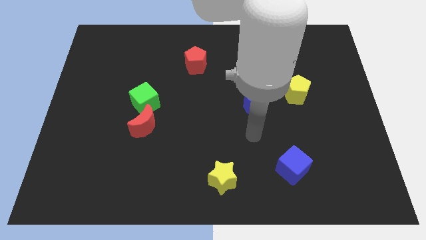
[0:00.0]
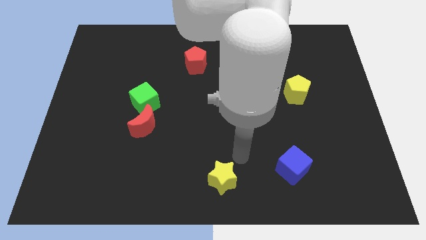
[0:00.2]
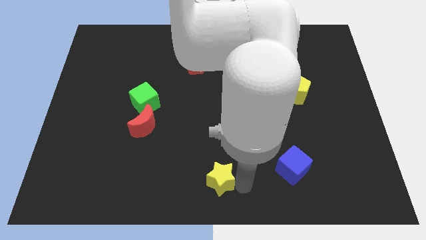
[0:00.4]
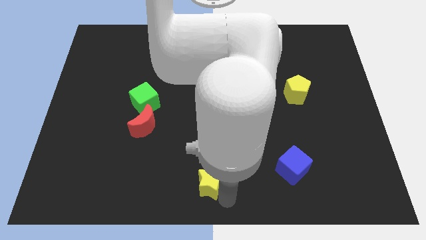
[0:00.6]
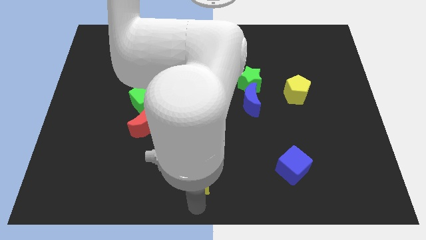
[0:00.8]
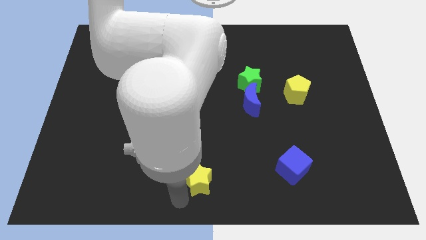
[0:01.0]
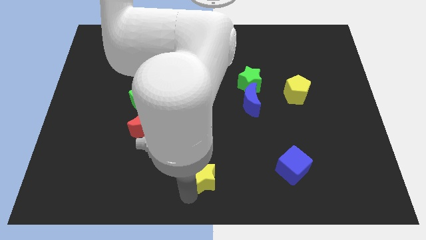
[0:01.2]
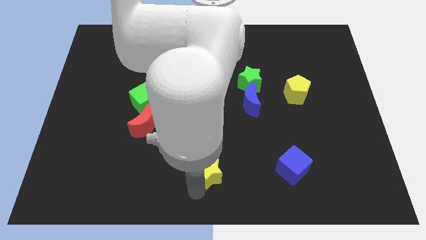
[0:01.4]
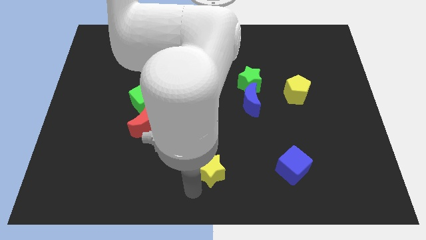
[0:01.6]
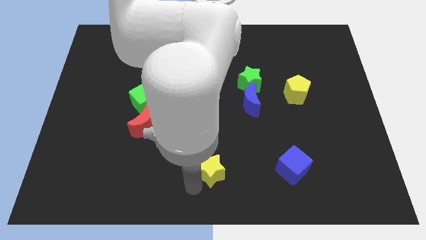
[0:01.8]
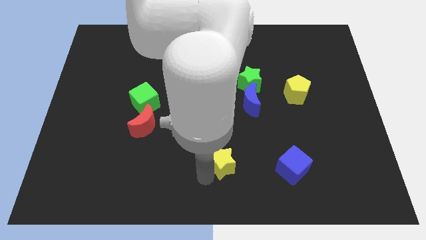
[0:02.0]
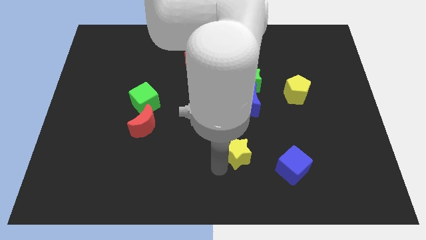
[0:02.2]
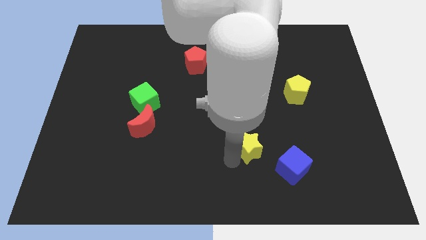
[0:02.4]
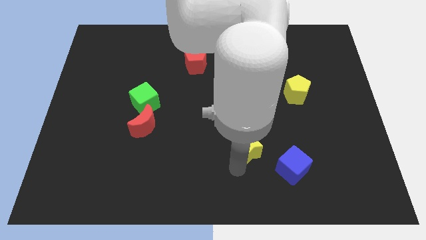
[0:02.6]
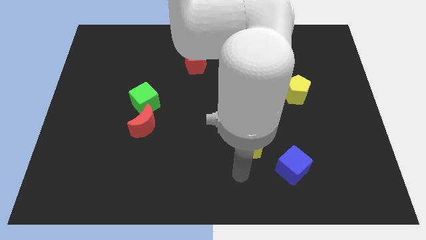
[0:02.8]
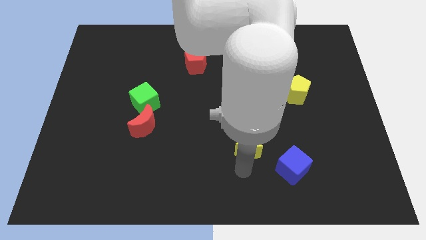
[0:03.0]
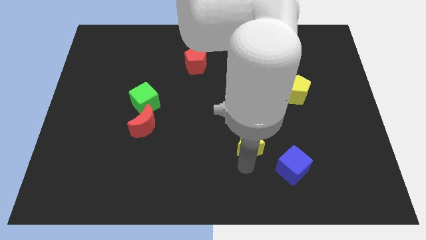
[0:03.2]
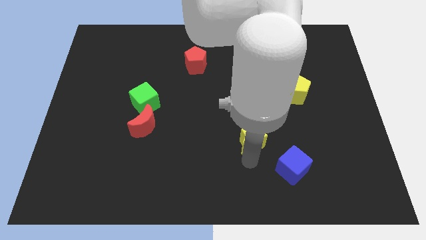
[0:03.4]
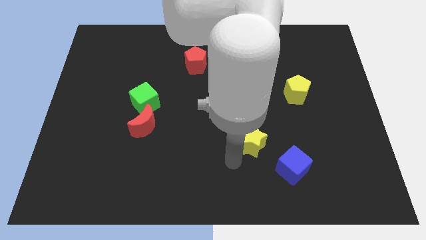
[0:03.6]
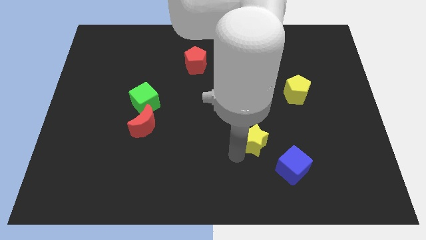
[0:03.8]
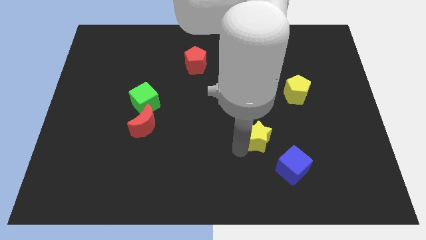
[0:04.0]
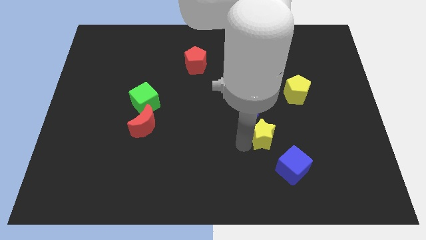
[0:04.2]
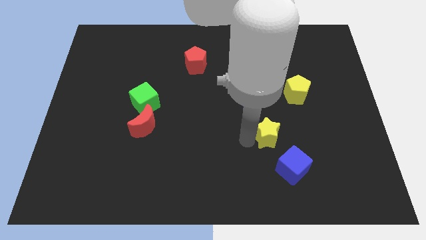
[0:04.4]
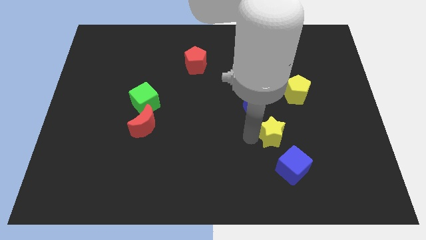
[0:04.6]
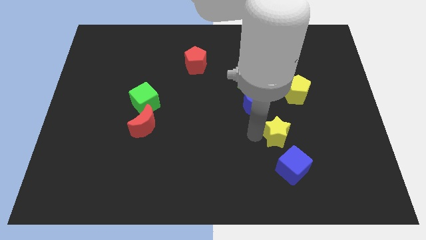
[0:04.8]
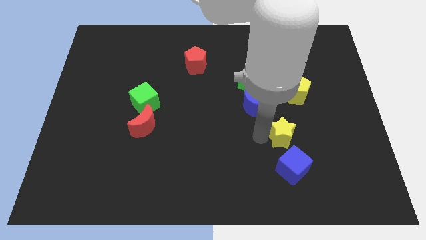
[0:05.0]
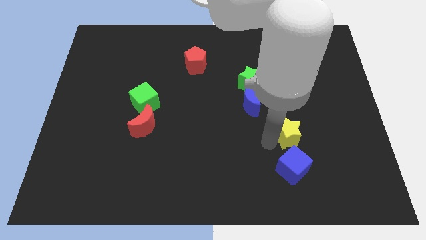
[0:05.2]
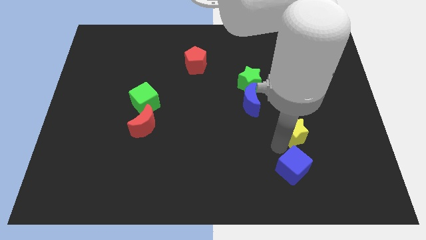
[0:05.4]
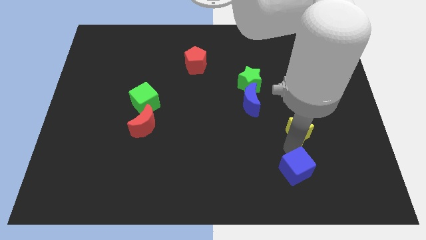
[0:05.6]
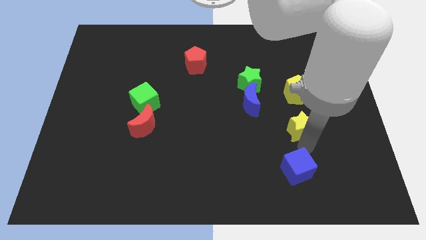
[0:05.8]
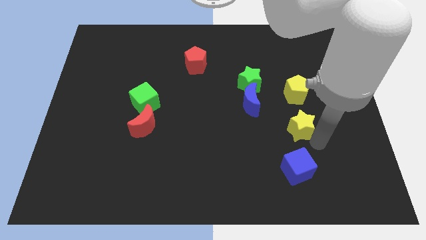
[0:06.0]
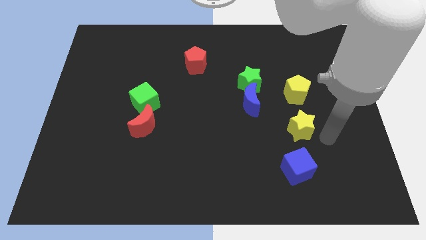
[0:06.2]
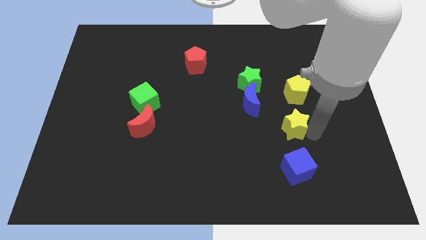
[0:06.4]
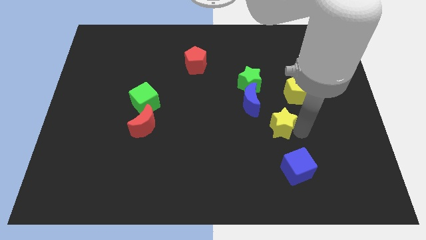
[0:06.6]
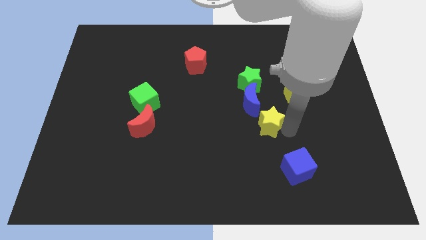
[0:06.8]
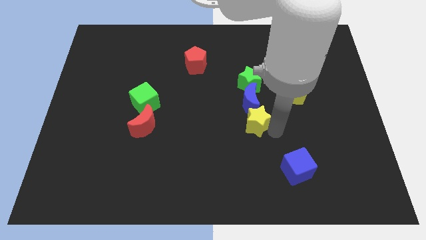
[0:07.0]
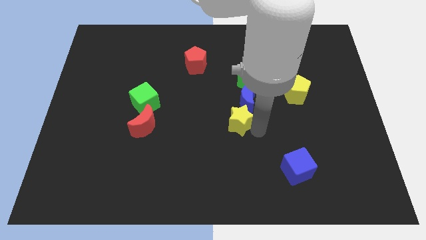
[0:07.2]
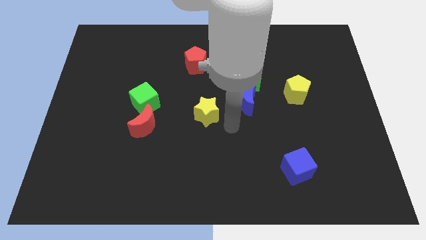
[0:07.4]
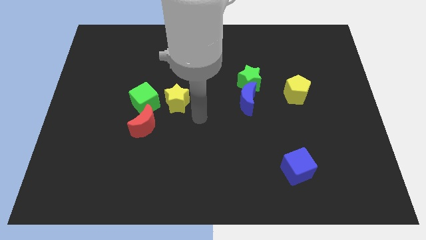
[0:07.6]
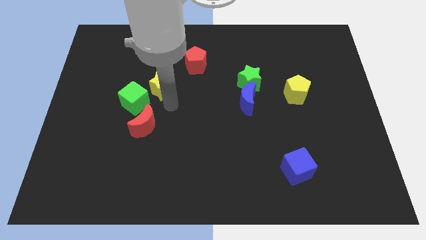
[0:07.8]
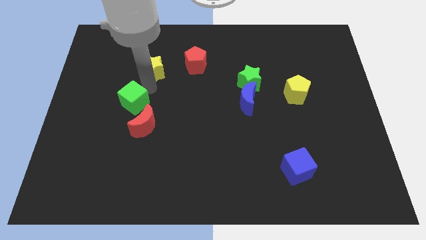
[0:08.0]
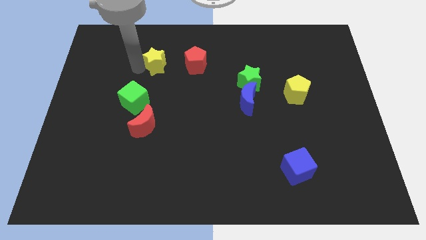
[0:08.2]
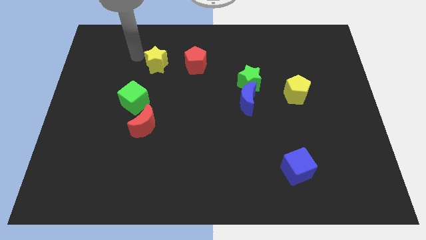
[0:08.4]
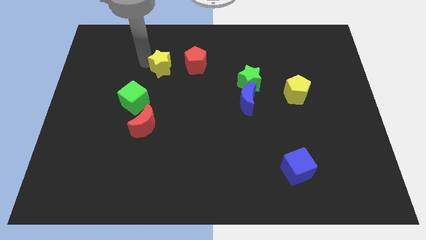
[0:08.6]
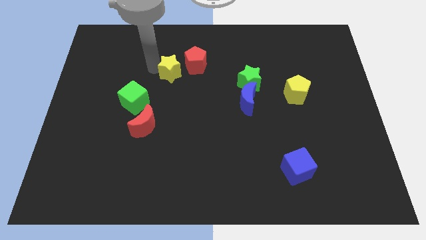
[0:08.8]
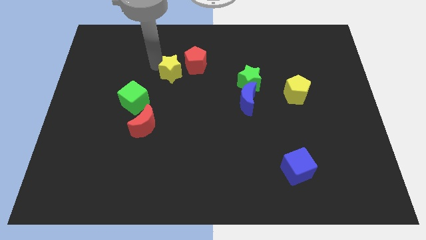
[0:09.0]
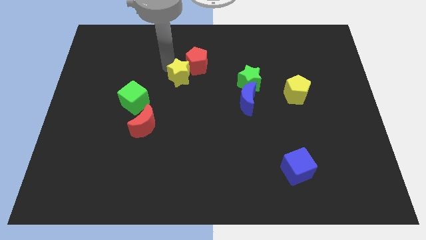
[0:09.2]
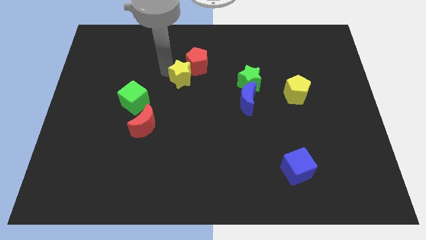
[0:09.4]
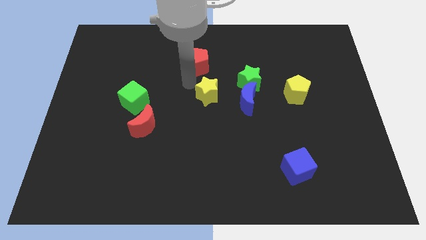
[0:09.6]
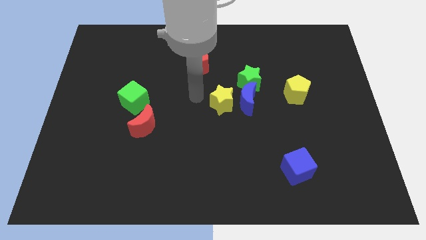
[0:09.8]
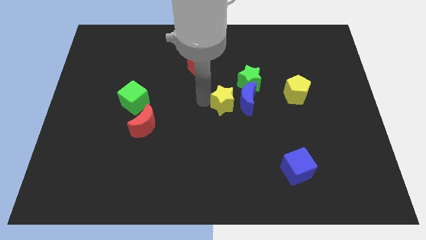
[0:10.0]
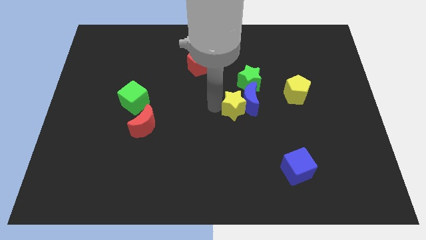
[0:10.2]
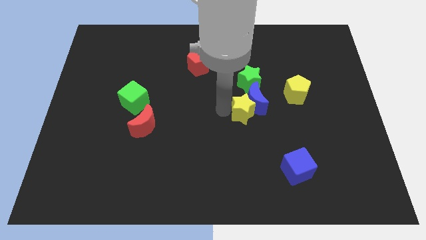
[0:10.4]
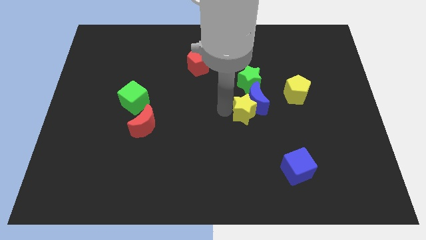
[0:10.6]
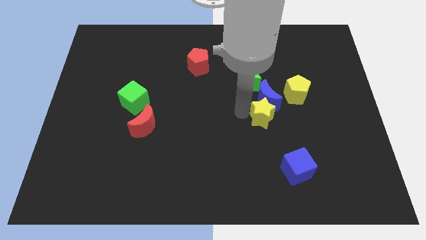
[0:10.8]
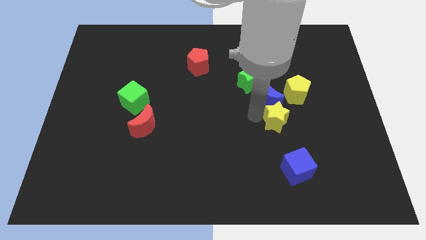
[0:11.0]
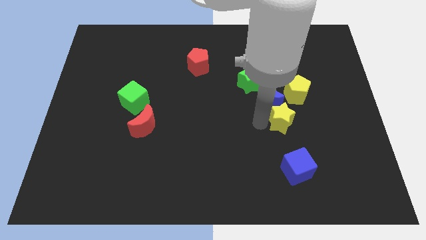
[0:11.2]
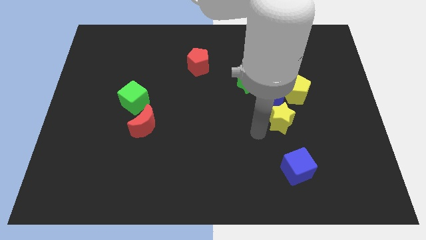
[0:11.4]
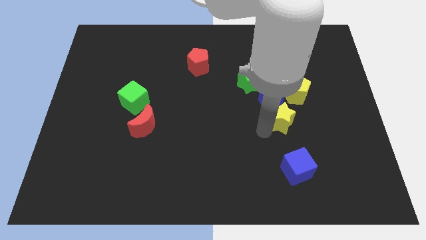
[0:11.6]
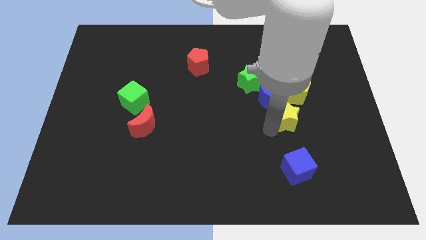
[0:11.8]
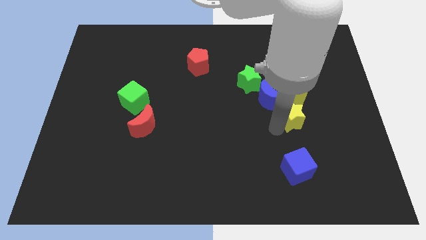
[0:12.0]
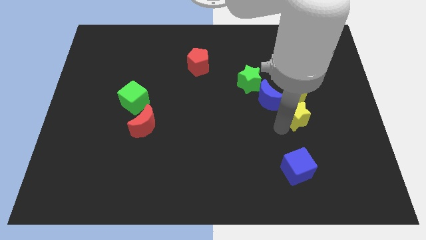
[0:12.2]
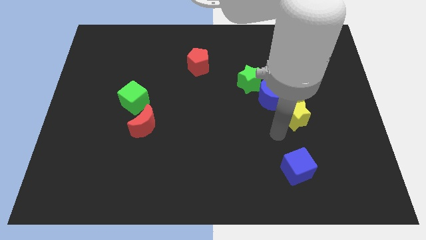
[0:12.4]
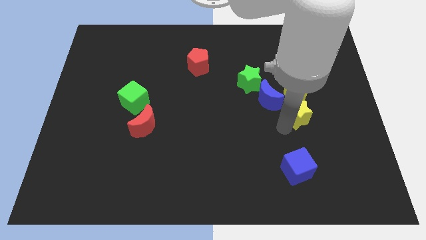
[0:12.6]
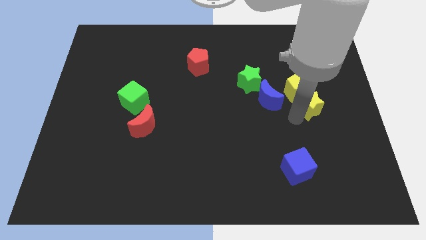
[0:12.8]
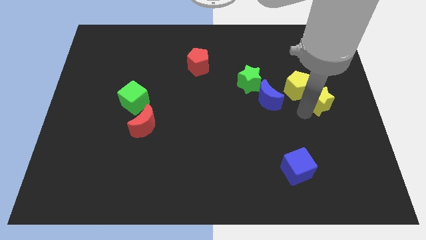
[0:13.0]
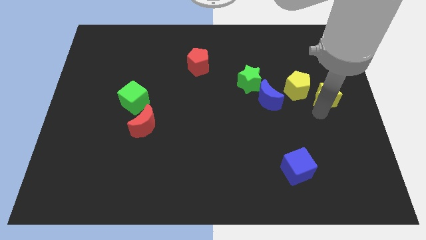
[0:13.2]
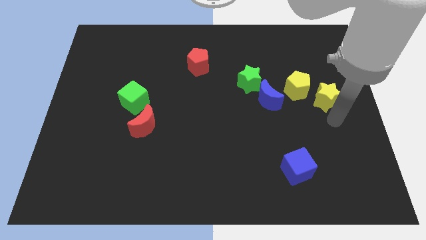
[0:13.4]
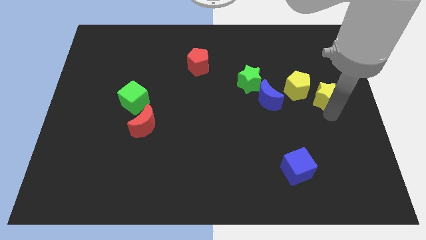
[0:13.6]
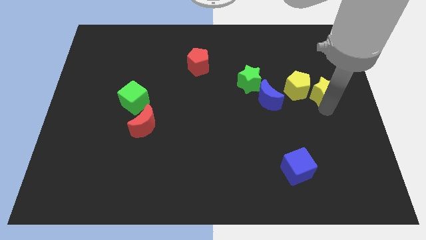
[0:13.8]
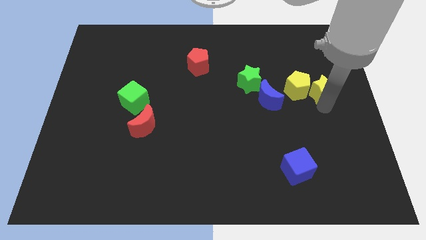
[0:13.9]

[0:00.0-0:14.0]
slide the yellow star to the top right side of the yellow pentagon
